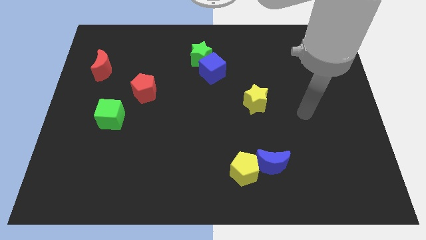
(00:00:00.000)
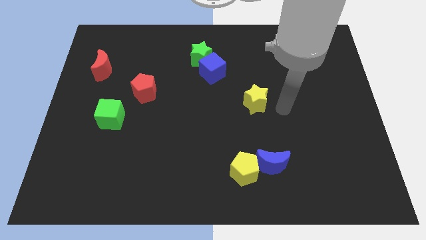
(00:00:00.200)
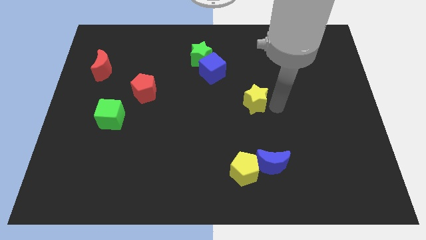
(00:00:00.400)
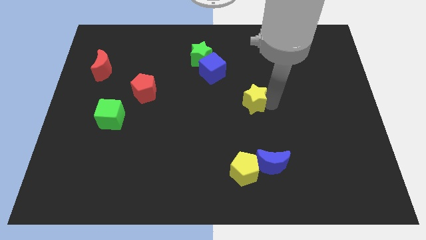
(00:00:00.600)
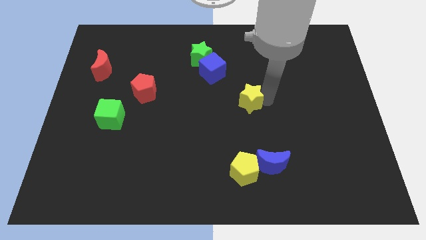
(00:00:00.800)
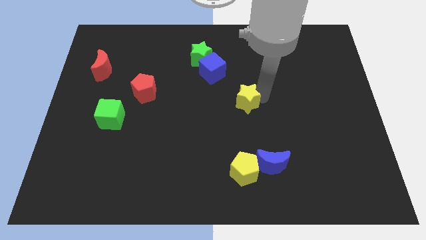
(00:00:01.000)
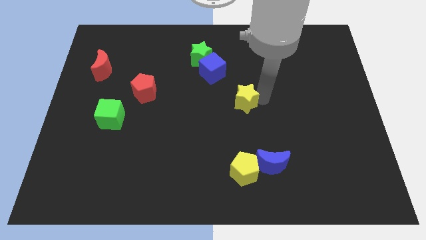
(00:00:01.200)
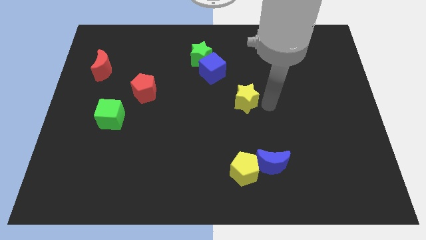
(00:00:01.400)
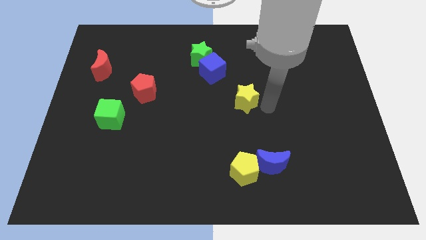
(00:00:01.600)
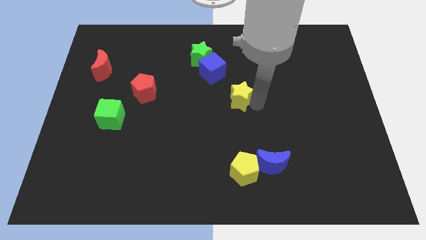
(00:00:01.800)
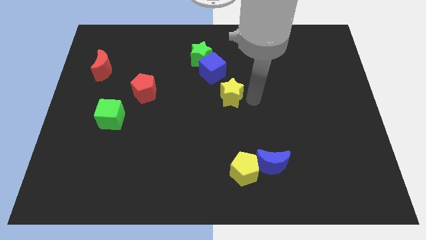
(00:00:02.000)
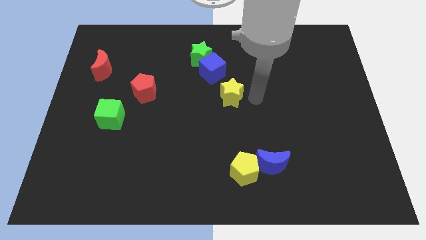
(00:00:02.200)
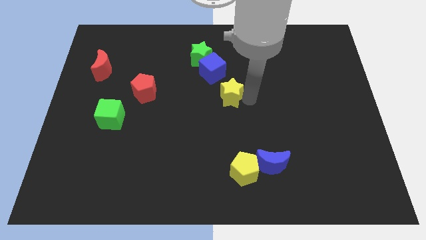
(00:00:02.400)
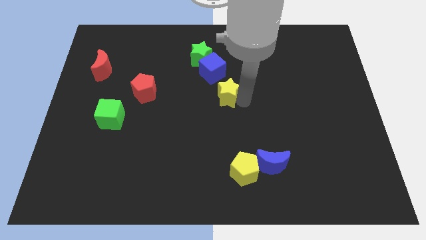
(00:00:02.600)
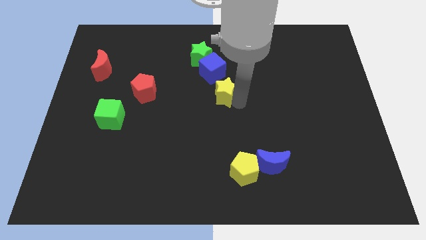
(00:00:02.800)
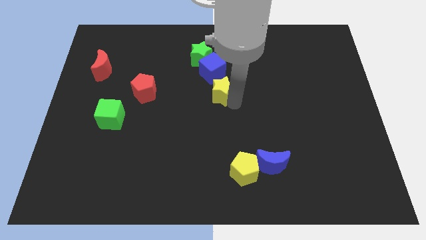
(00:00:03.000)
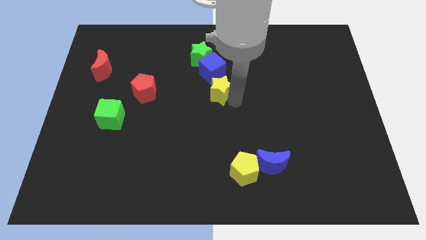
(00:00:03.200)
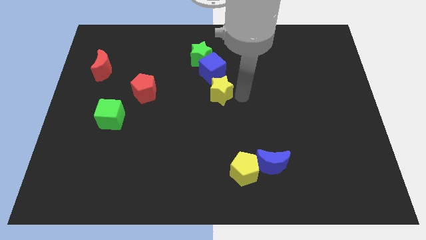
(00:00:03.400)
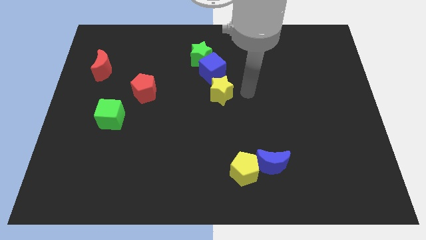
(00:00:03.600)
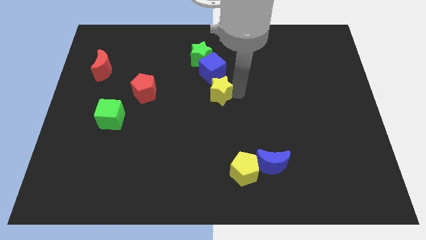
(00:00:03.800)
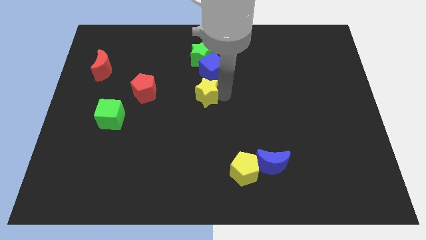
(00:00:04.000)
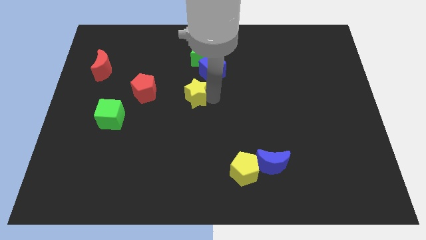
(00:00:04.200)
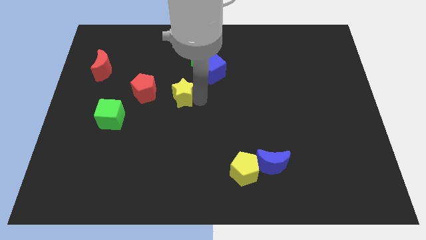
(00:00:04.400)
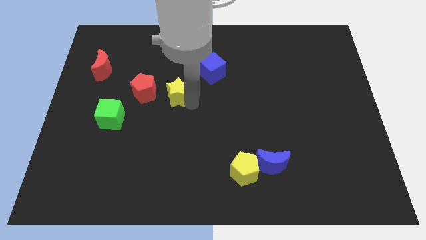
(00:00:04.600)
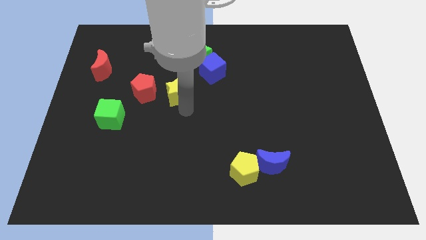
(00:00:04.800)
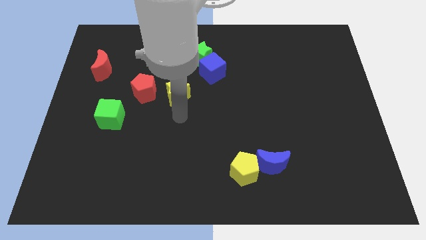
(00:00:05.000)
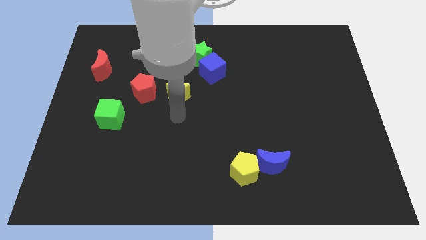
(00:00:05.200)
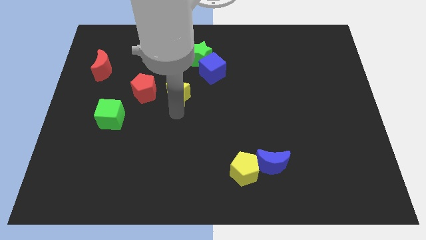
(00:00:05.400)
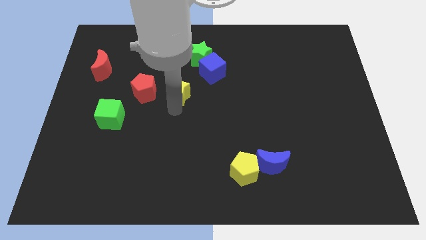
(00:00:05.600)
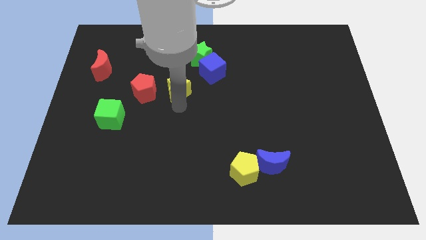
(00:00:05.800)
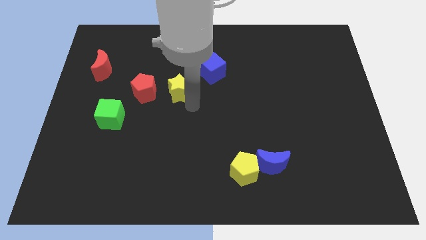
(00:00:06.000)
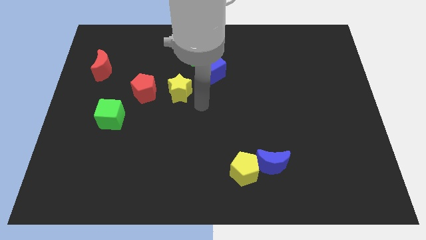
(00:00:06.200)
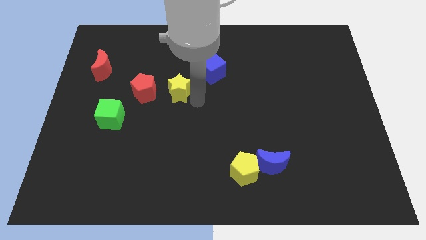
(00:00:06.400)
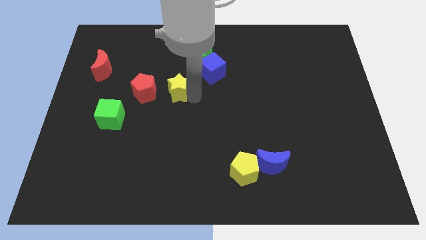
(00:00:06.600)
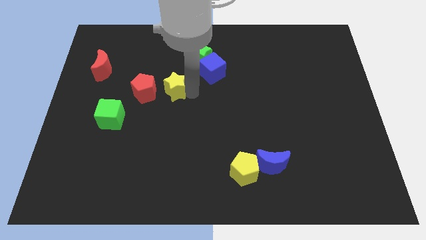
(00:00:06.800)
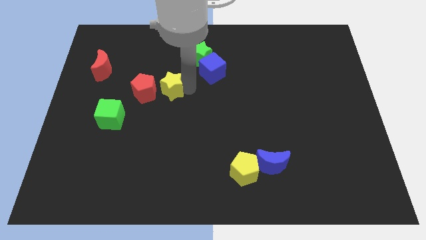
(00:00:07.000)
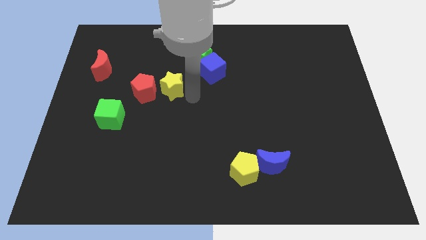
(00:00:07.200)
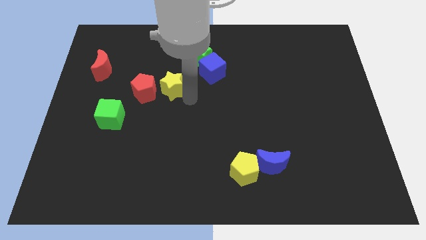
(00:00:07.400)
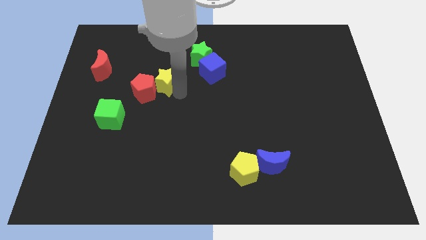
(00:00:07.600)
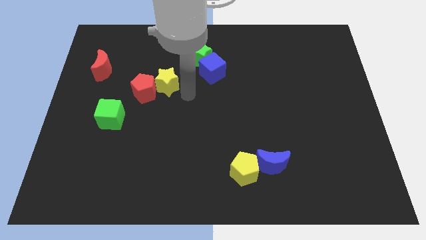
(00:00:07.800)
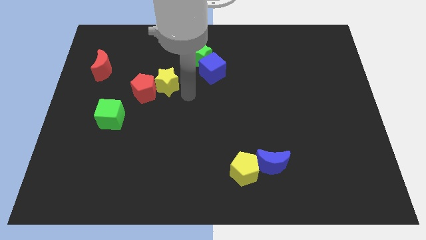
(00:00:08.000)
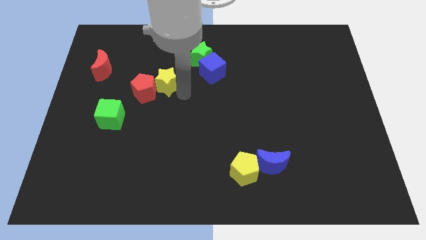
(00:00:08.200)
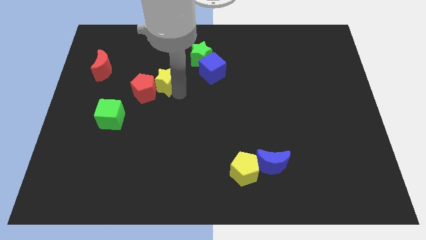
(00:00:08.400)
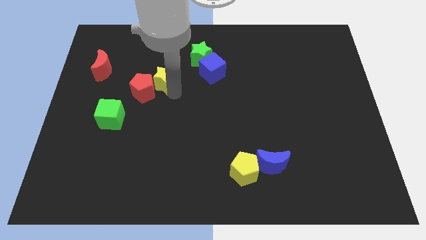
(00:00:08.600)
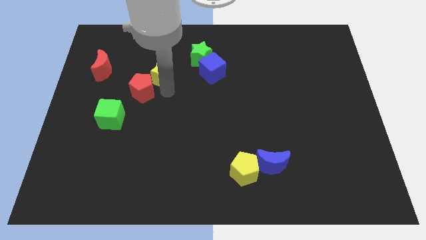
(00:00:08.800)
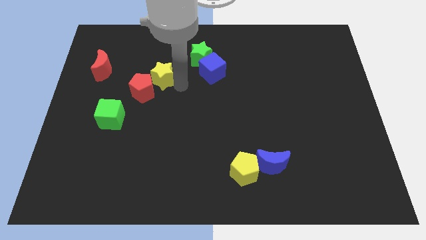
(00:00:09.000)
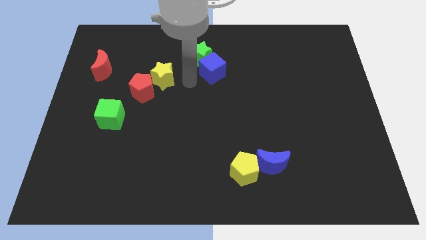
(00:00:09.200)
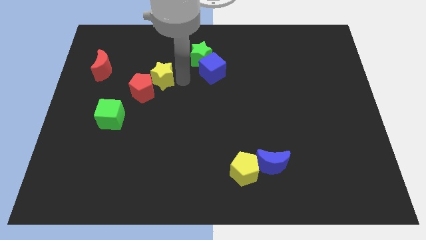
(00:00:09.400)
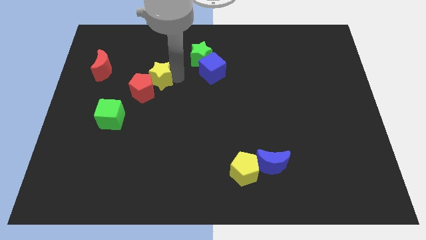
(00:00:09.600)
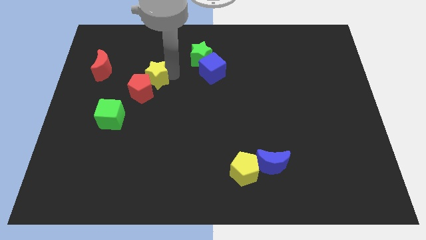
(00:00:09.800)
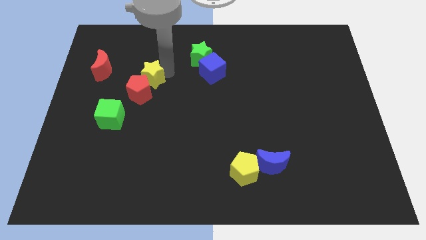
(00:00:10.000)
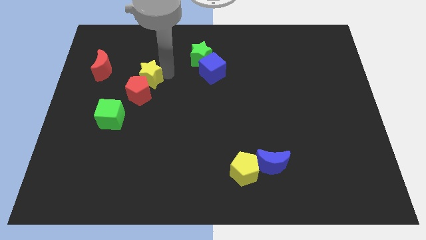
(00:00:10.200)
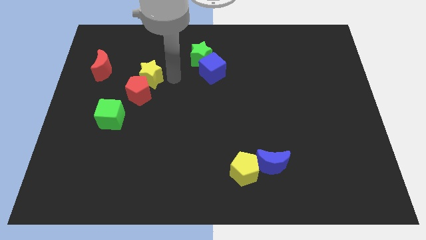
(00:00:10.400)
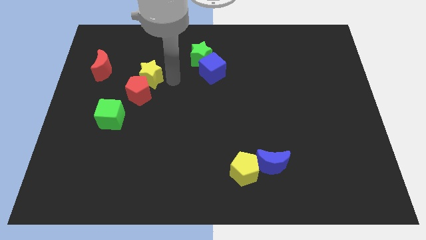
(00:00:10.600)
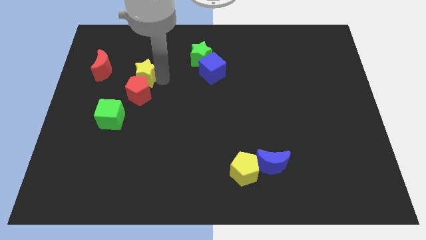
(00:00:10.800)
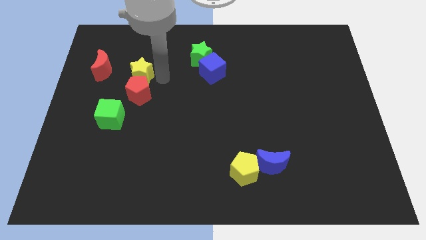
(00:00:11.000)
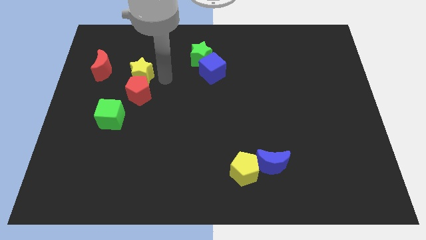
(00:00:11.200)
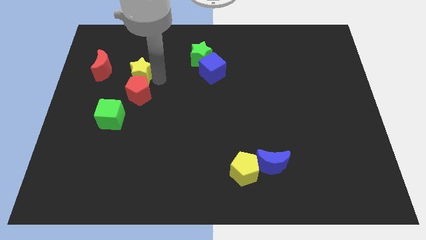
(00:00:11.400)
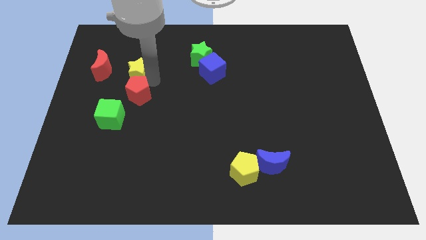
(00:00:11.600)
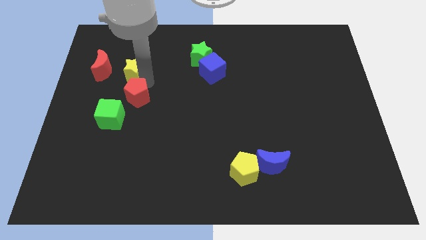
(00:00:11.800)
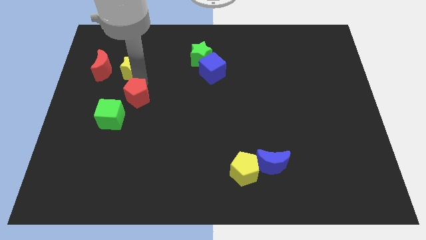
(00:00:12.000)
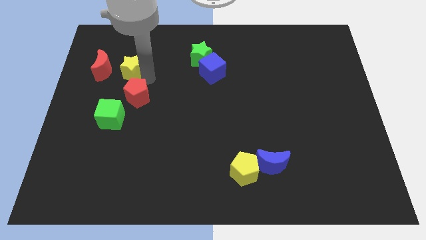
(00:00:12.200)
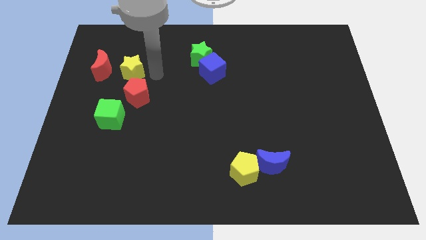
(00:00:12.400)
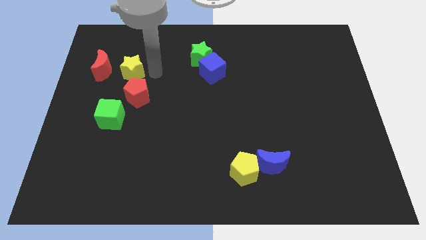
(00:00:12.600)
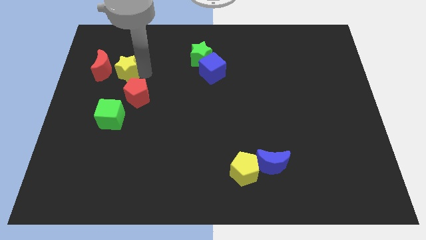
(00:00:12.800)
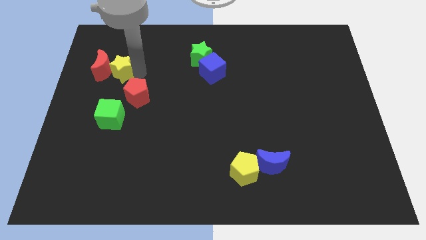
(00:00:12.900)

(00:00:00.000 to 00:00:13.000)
move the yellow star towards the red moon

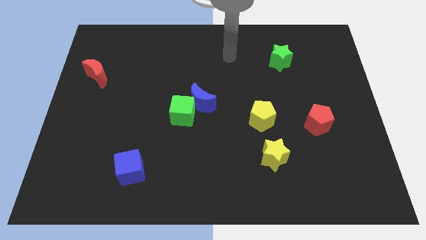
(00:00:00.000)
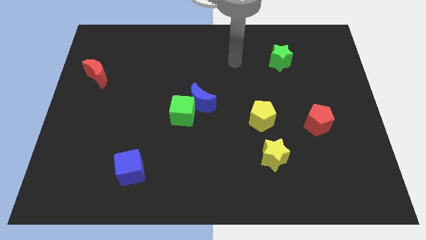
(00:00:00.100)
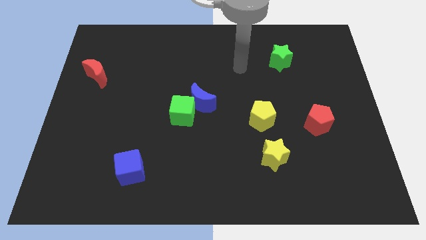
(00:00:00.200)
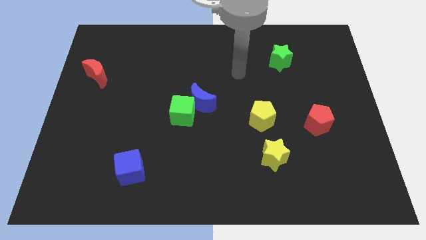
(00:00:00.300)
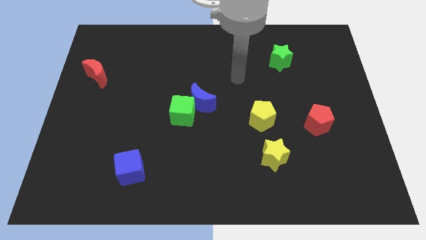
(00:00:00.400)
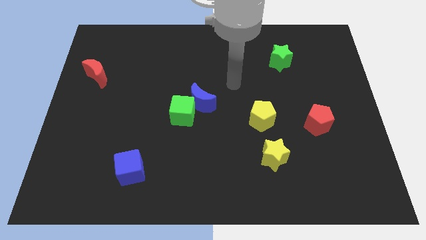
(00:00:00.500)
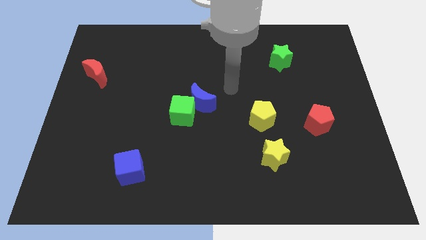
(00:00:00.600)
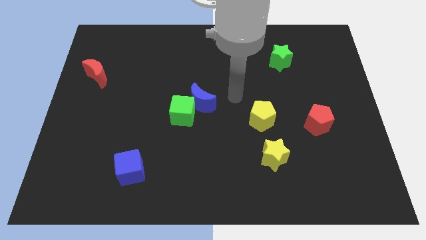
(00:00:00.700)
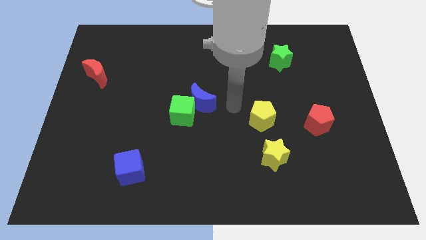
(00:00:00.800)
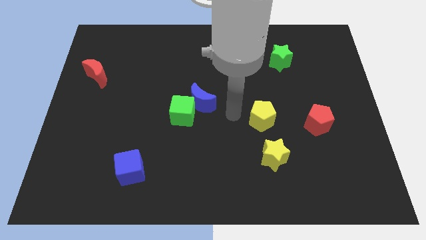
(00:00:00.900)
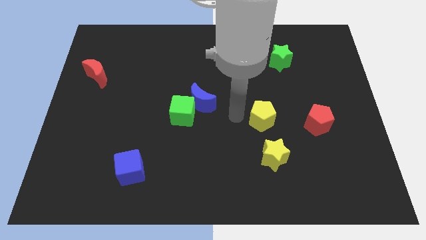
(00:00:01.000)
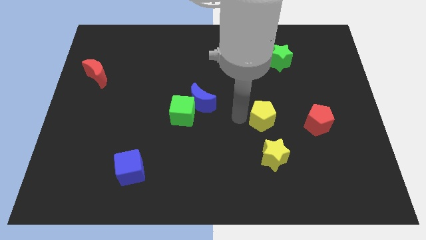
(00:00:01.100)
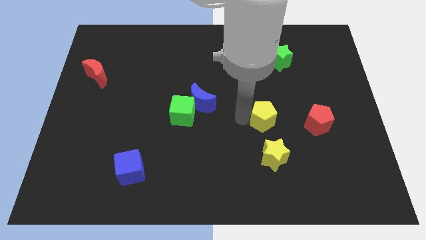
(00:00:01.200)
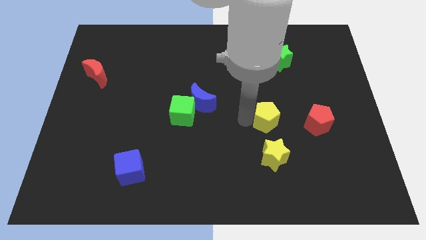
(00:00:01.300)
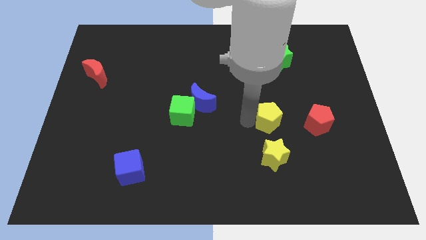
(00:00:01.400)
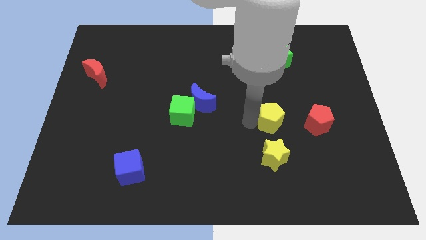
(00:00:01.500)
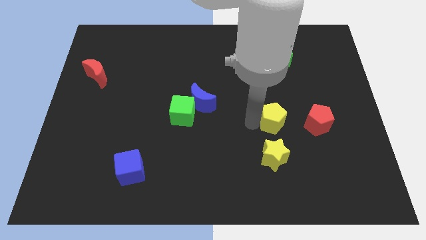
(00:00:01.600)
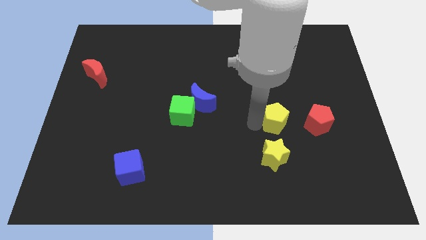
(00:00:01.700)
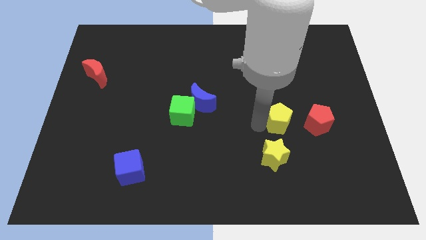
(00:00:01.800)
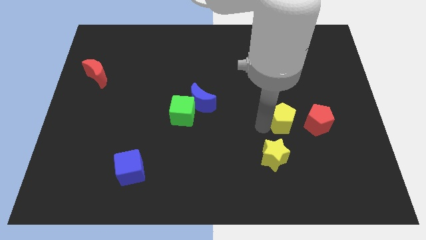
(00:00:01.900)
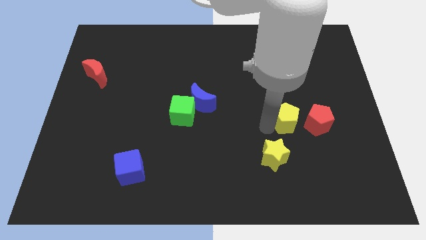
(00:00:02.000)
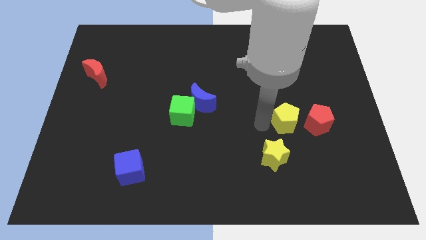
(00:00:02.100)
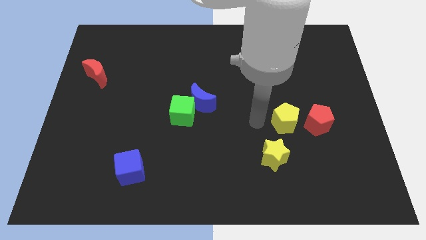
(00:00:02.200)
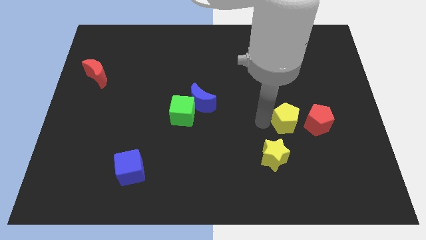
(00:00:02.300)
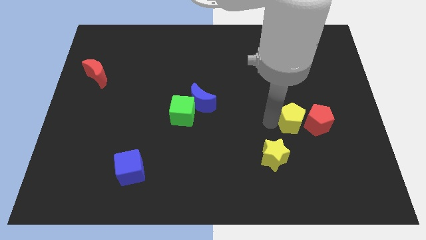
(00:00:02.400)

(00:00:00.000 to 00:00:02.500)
slide the yellow pentagon to the red pentagon
